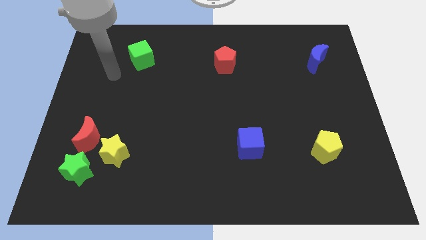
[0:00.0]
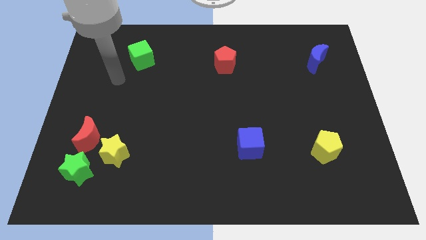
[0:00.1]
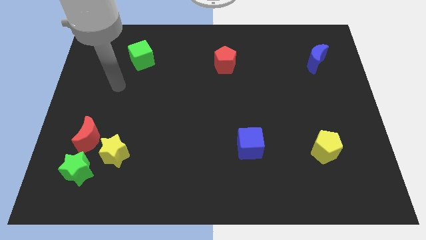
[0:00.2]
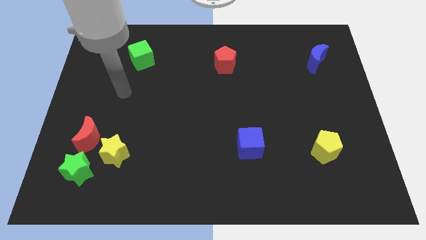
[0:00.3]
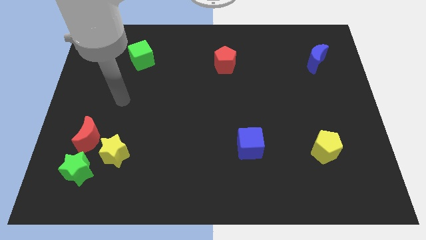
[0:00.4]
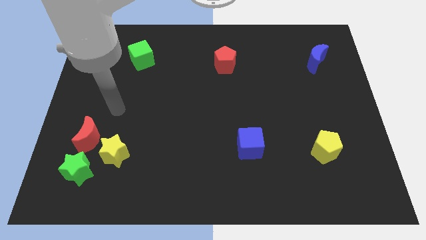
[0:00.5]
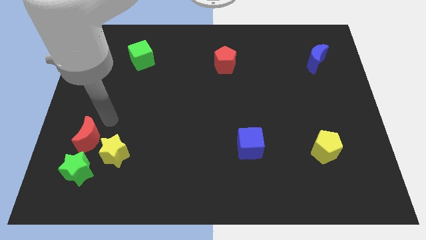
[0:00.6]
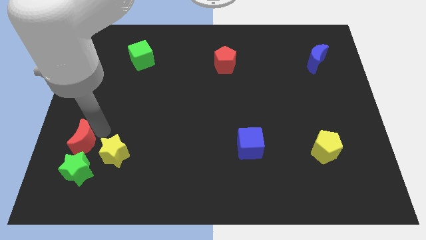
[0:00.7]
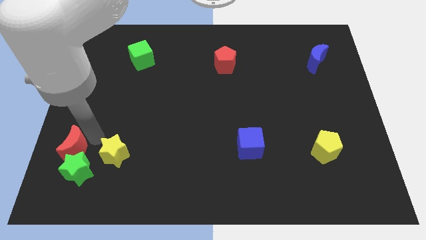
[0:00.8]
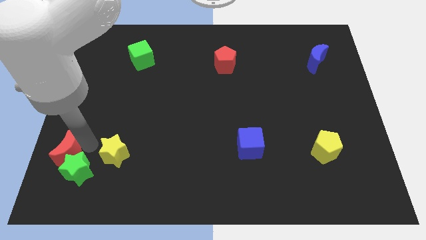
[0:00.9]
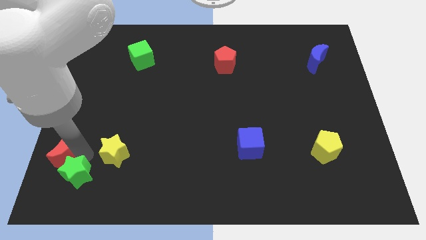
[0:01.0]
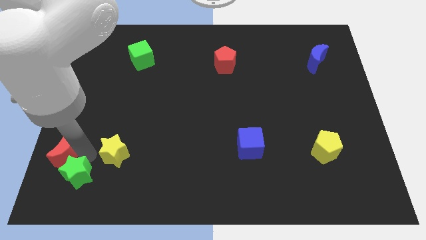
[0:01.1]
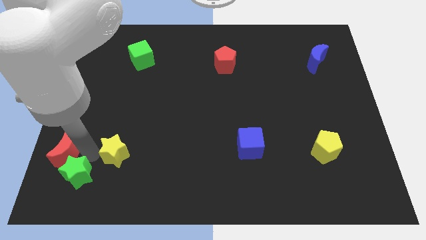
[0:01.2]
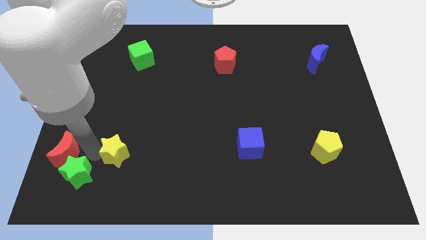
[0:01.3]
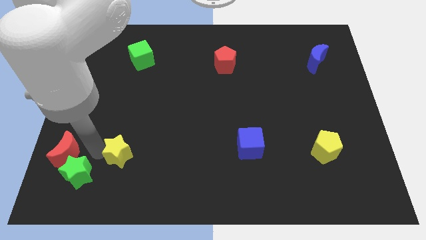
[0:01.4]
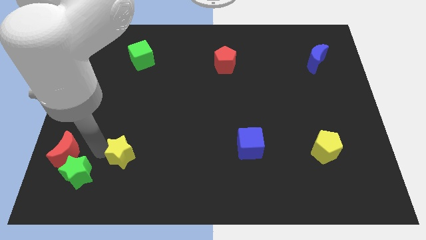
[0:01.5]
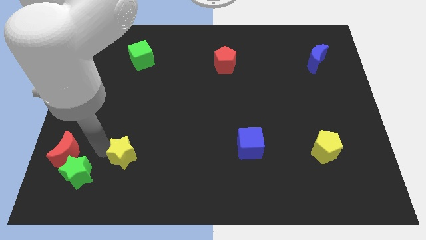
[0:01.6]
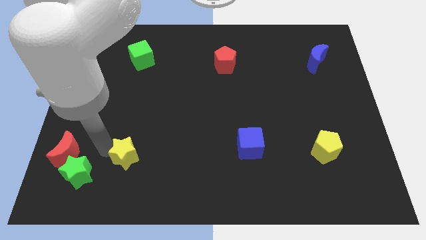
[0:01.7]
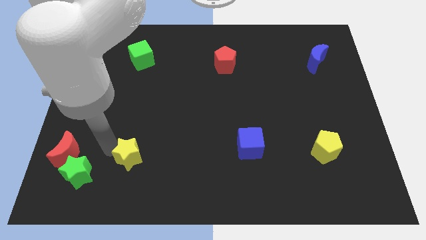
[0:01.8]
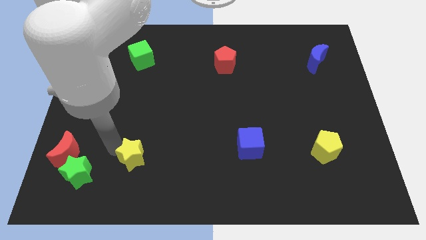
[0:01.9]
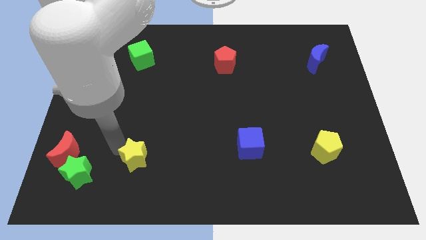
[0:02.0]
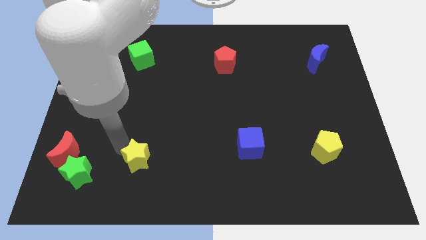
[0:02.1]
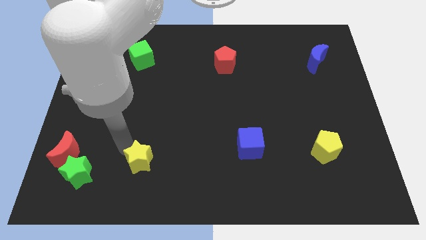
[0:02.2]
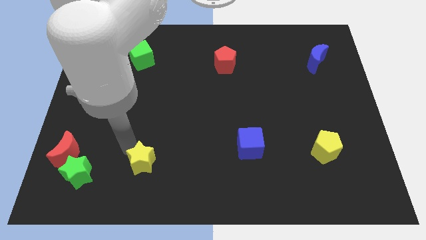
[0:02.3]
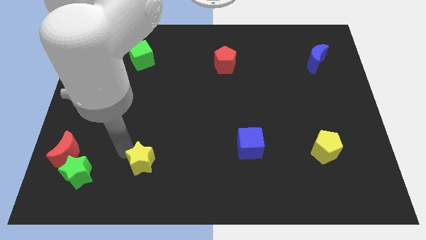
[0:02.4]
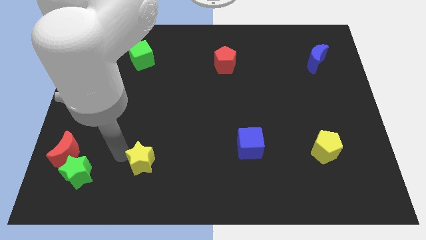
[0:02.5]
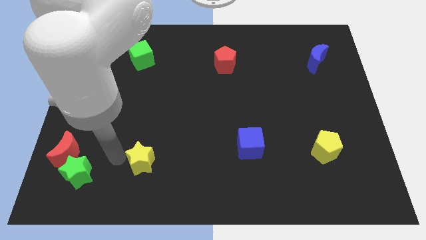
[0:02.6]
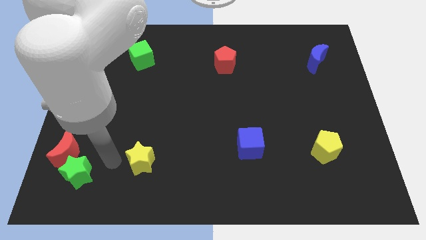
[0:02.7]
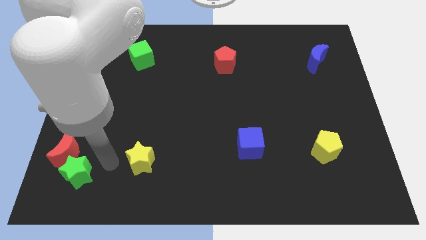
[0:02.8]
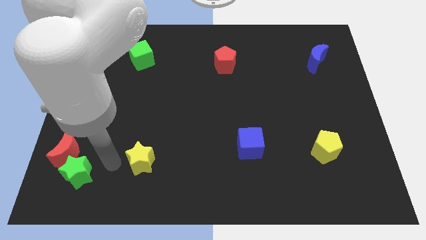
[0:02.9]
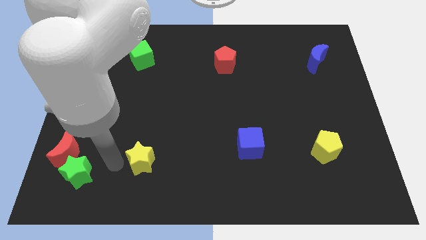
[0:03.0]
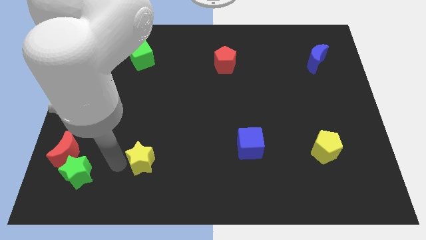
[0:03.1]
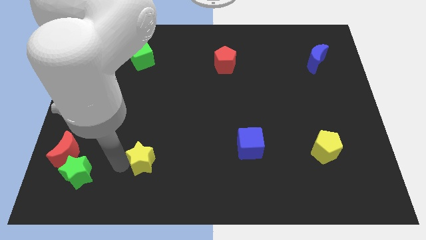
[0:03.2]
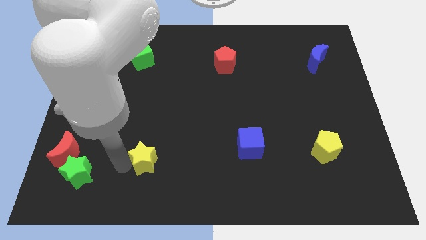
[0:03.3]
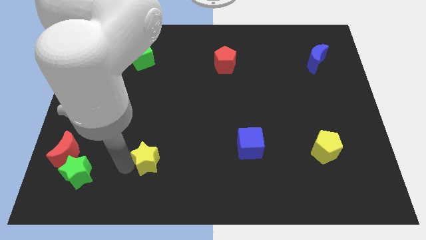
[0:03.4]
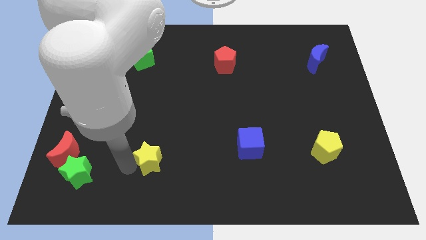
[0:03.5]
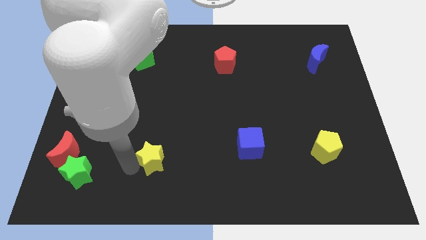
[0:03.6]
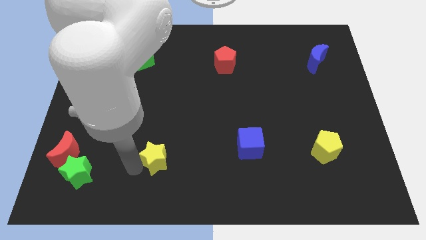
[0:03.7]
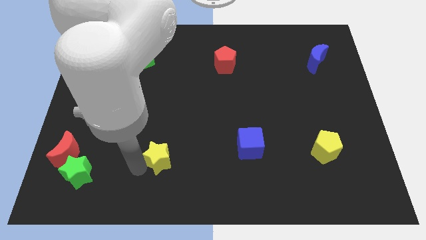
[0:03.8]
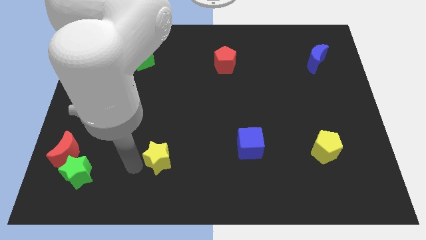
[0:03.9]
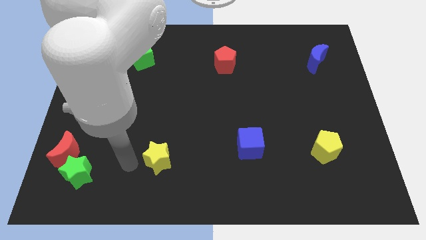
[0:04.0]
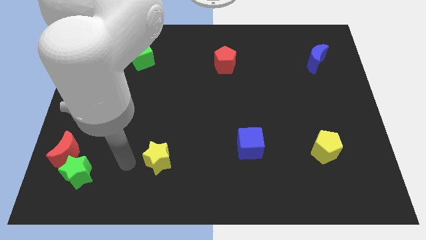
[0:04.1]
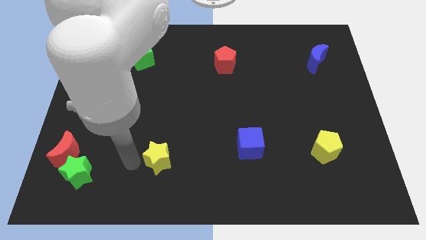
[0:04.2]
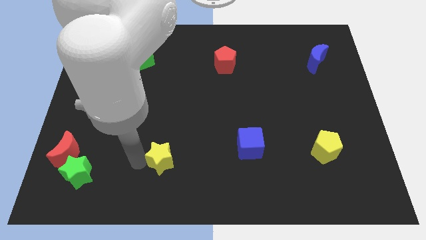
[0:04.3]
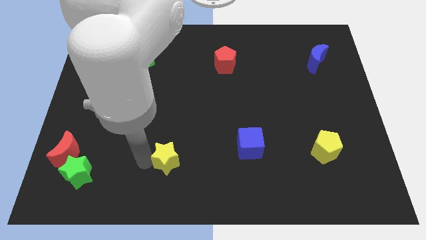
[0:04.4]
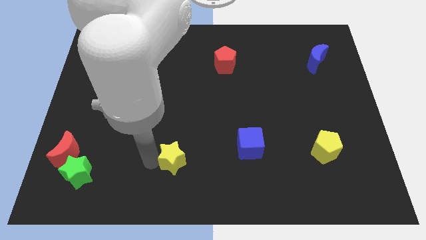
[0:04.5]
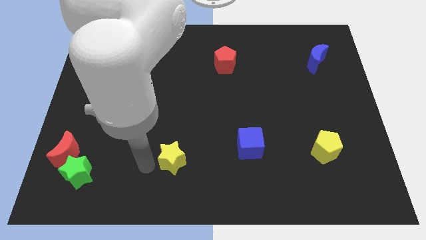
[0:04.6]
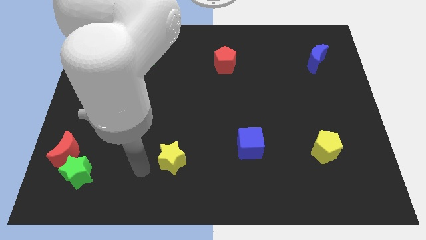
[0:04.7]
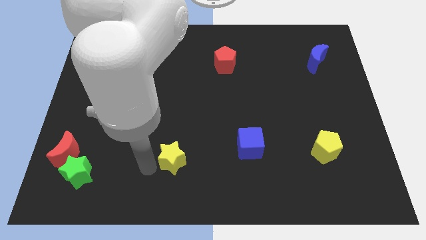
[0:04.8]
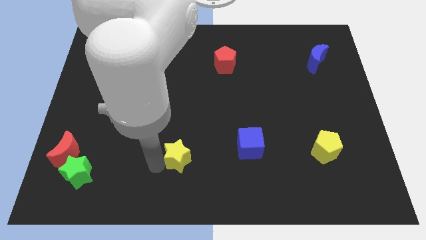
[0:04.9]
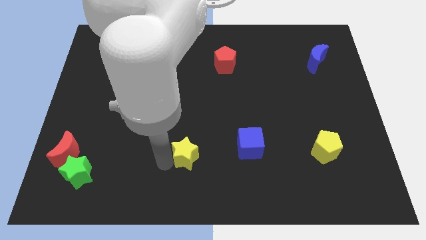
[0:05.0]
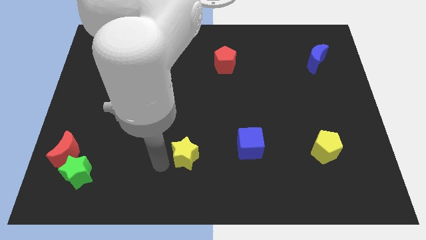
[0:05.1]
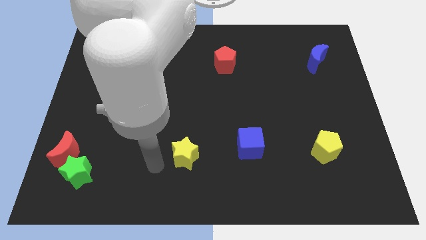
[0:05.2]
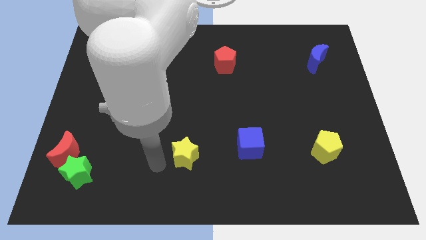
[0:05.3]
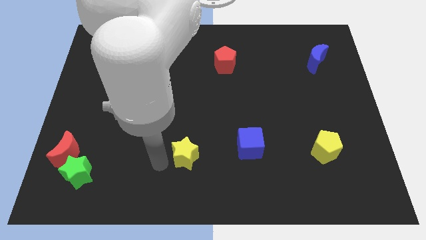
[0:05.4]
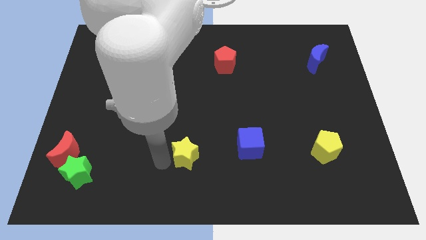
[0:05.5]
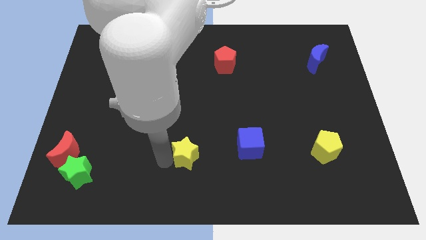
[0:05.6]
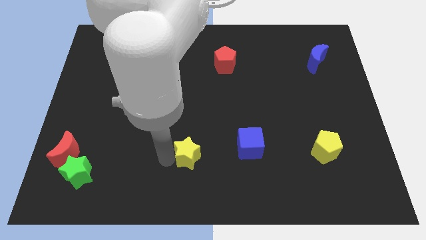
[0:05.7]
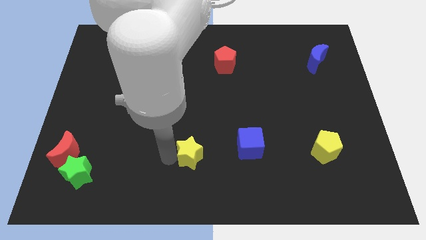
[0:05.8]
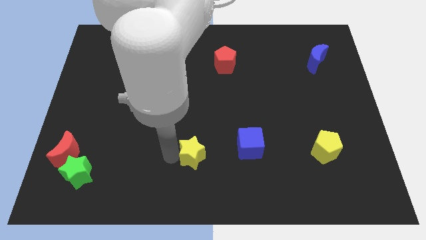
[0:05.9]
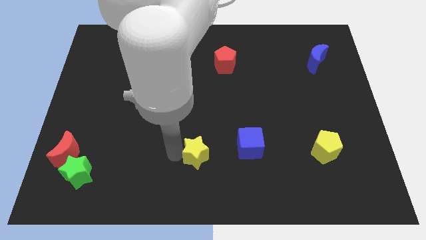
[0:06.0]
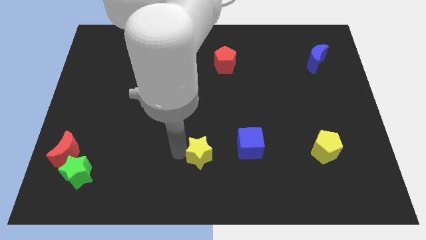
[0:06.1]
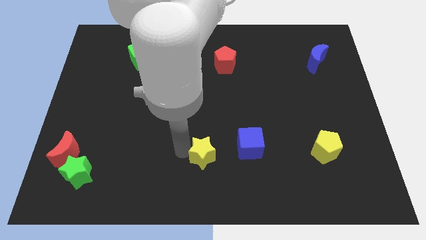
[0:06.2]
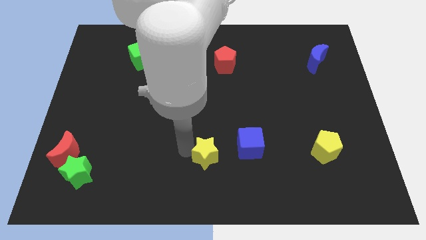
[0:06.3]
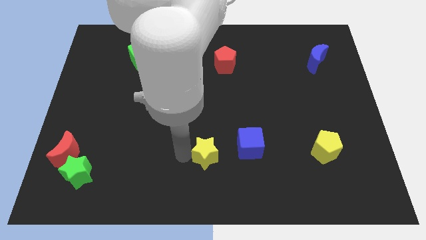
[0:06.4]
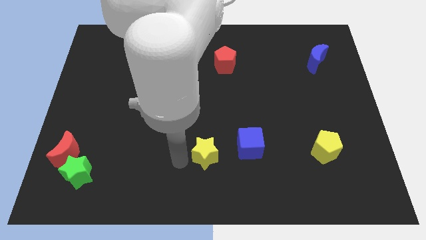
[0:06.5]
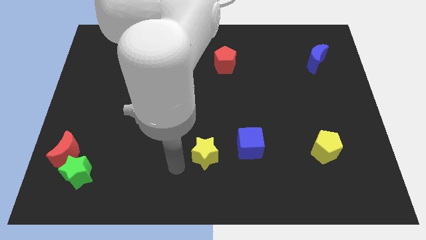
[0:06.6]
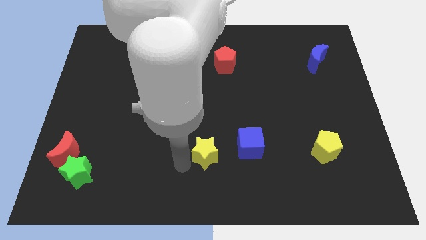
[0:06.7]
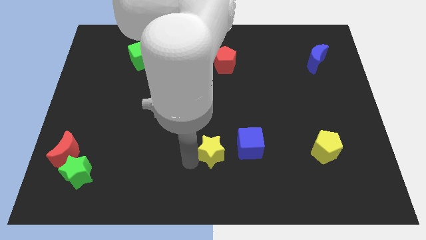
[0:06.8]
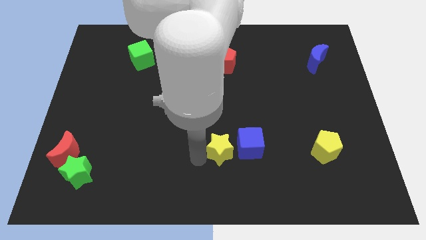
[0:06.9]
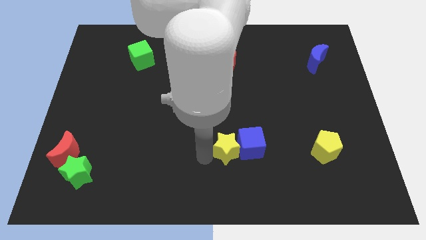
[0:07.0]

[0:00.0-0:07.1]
move the yellow star close to the blue cube
